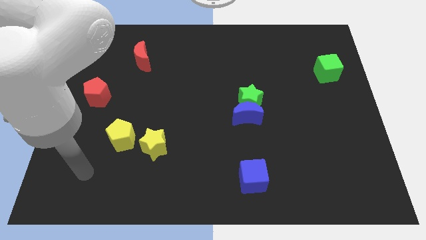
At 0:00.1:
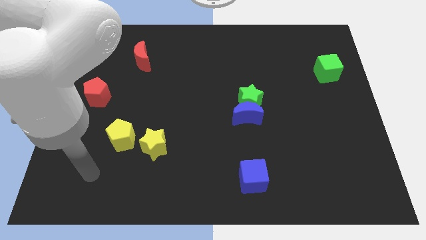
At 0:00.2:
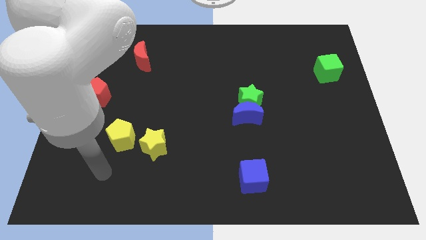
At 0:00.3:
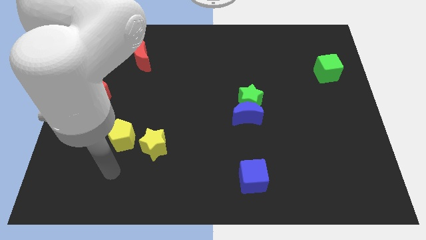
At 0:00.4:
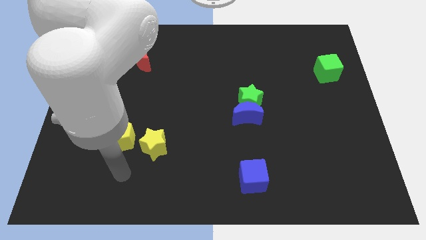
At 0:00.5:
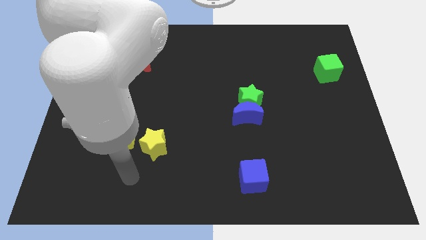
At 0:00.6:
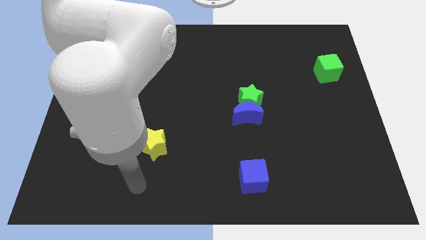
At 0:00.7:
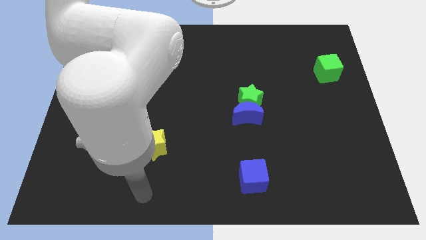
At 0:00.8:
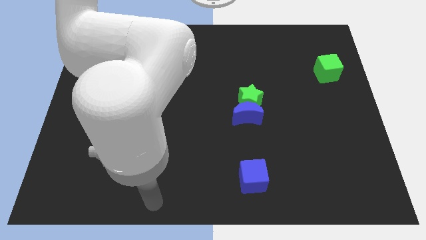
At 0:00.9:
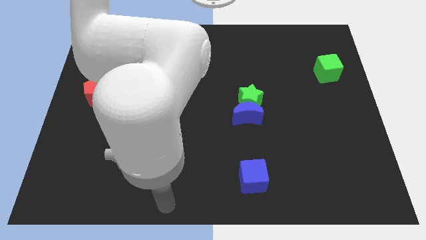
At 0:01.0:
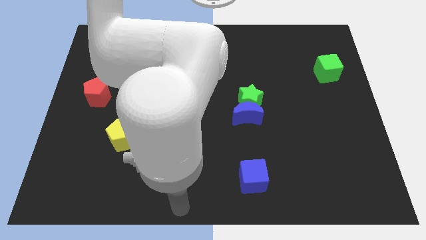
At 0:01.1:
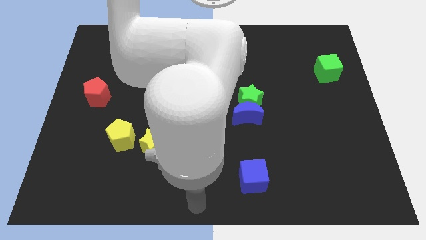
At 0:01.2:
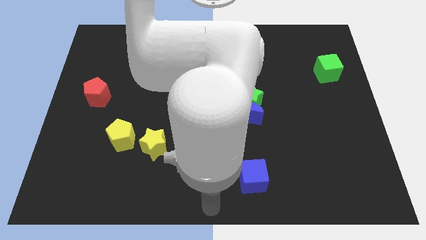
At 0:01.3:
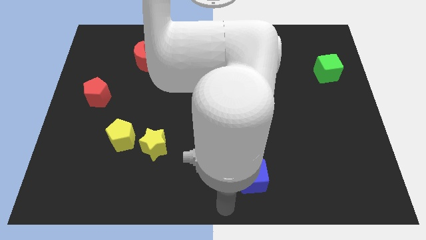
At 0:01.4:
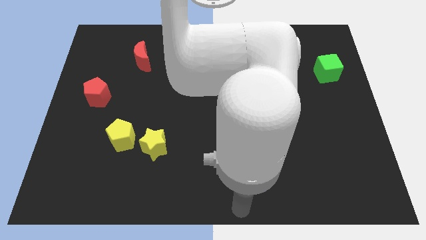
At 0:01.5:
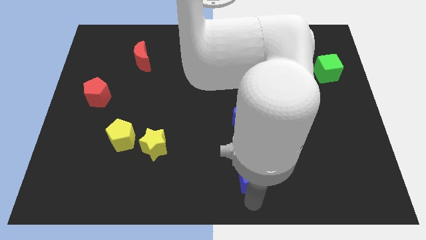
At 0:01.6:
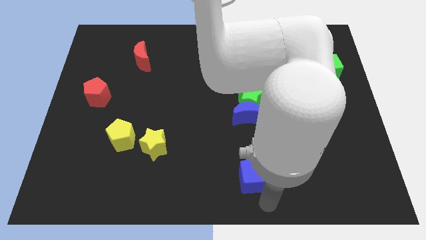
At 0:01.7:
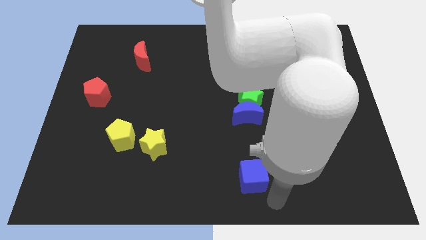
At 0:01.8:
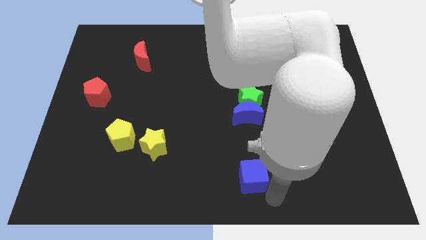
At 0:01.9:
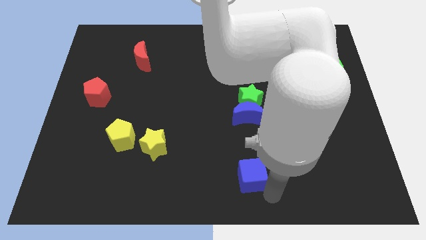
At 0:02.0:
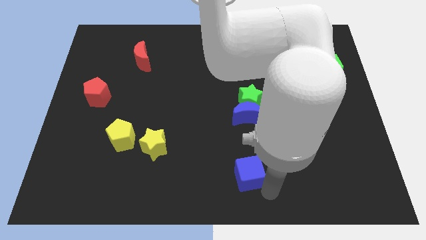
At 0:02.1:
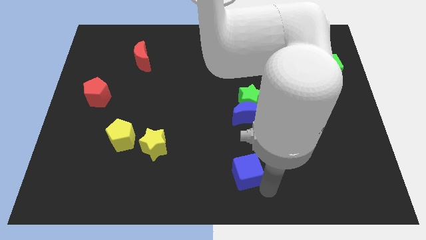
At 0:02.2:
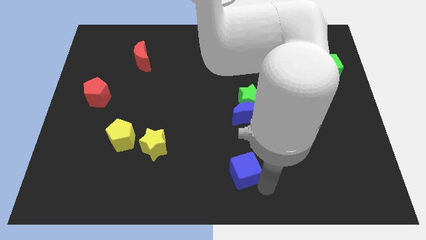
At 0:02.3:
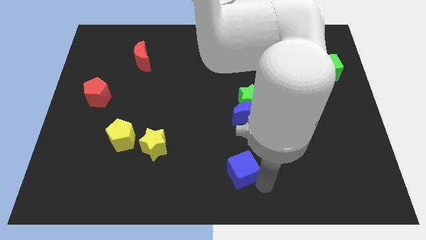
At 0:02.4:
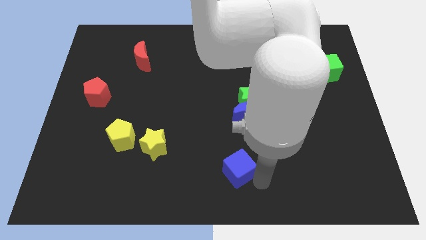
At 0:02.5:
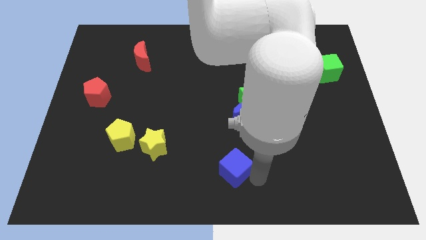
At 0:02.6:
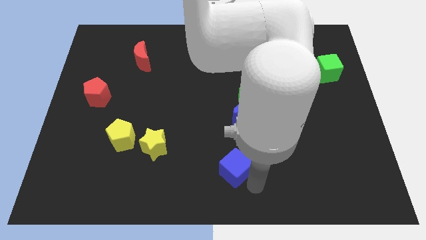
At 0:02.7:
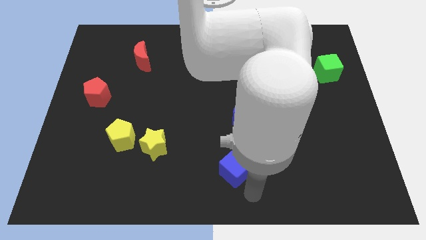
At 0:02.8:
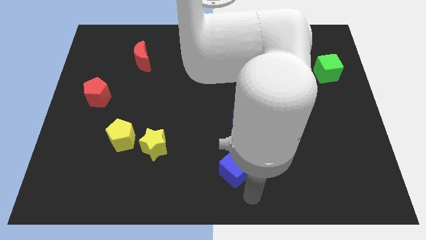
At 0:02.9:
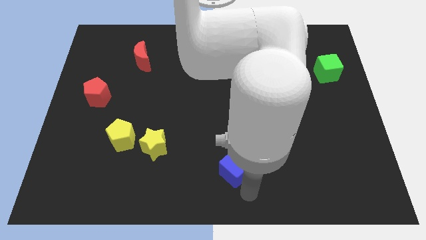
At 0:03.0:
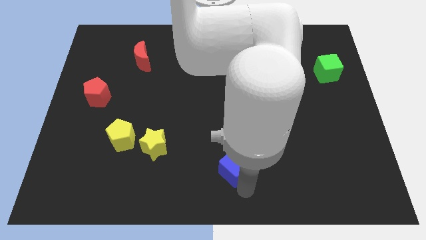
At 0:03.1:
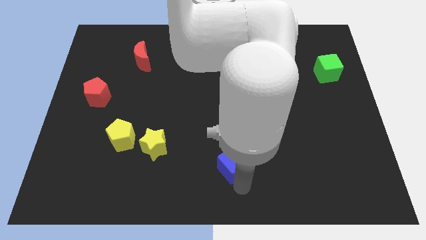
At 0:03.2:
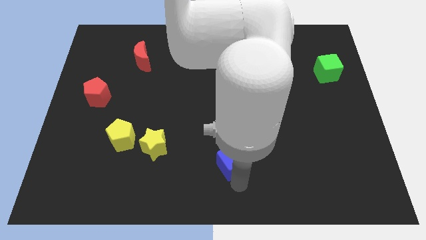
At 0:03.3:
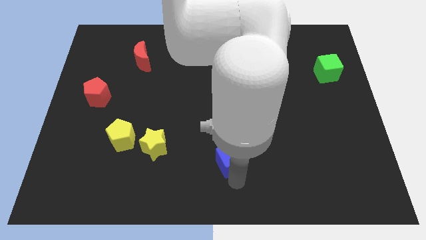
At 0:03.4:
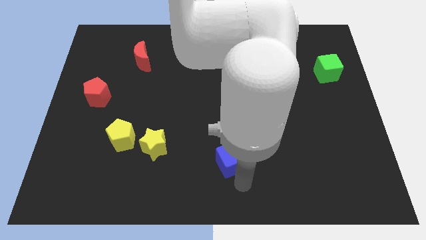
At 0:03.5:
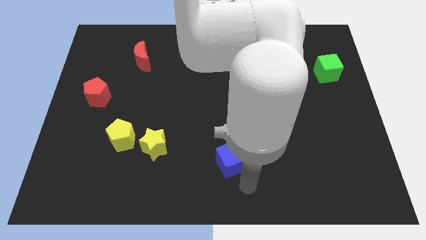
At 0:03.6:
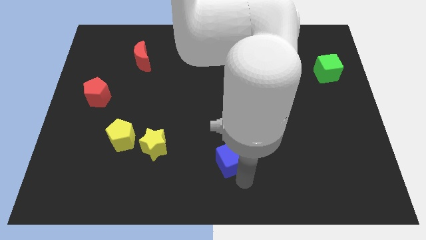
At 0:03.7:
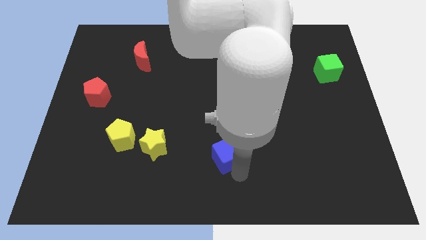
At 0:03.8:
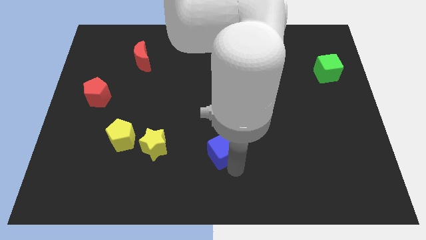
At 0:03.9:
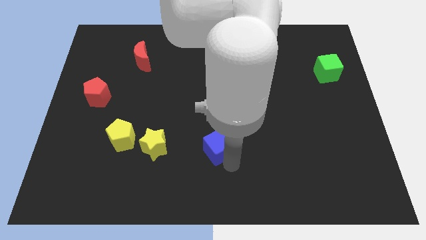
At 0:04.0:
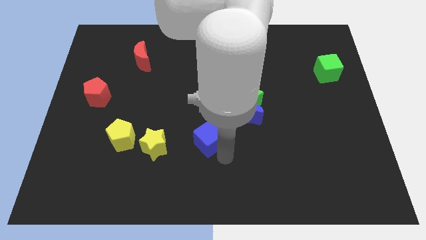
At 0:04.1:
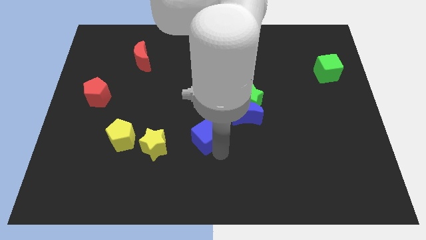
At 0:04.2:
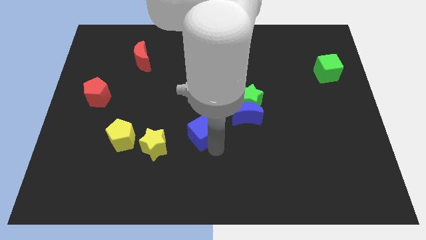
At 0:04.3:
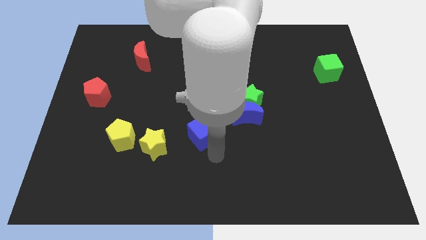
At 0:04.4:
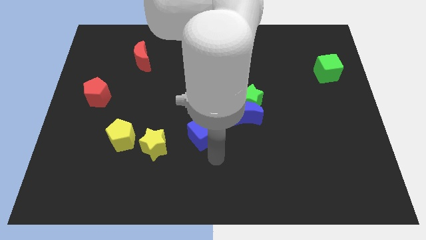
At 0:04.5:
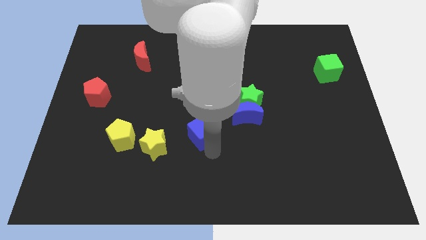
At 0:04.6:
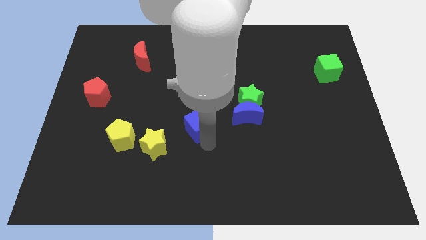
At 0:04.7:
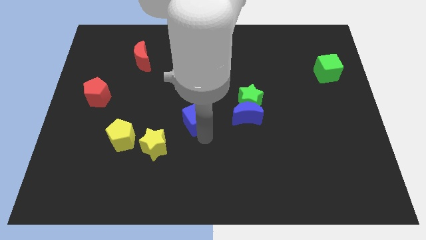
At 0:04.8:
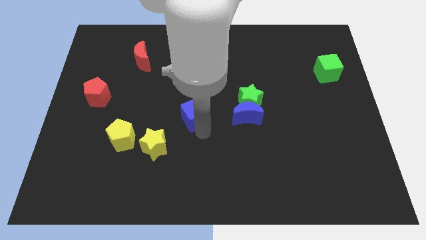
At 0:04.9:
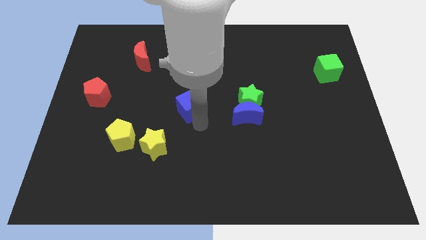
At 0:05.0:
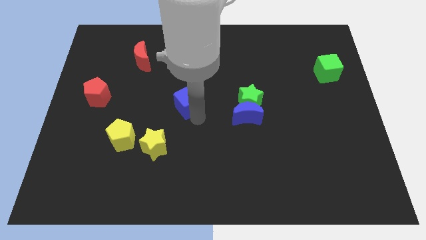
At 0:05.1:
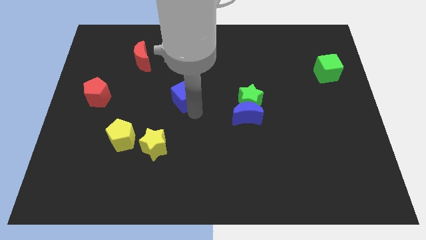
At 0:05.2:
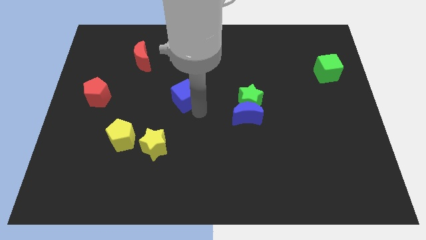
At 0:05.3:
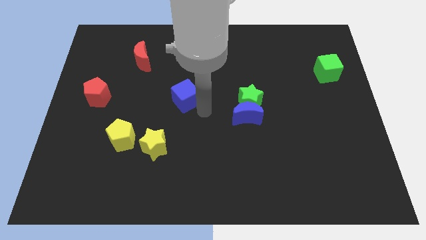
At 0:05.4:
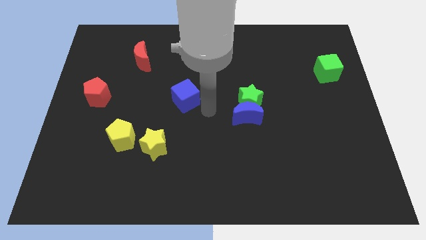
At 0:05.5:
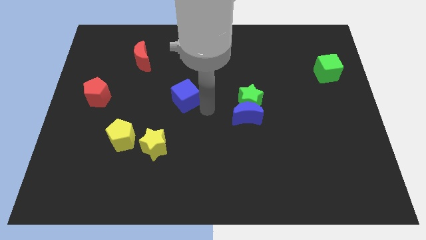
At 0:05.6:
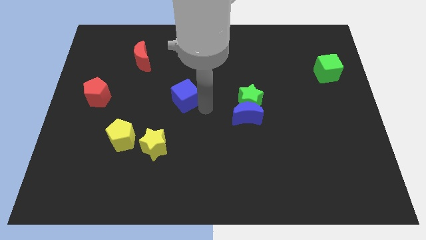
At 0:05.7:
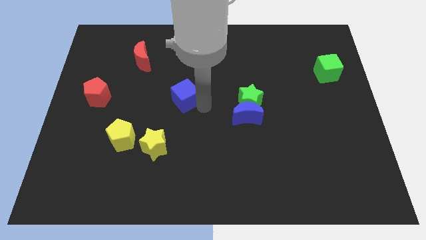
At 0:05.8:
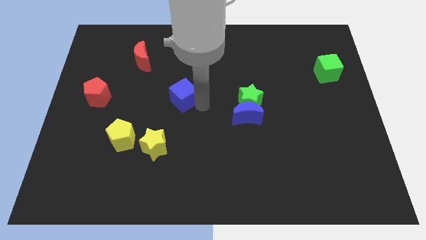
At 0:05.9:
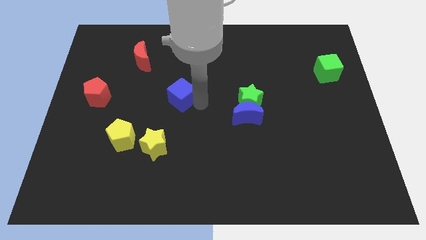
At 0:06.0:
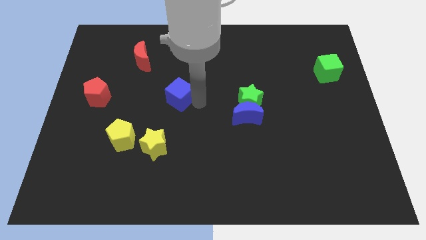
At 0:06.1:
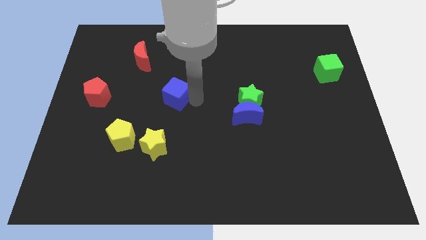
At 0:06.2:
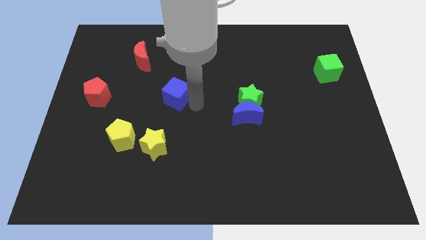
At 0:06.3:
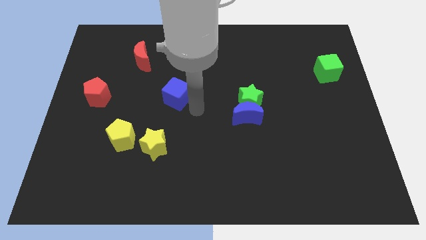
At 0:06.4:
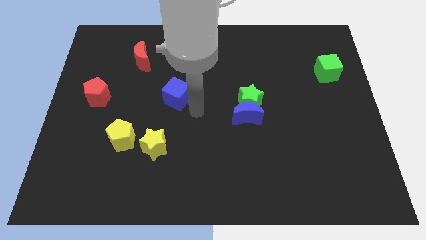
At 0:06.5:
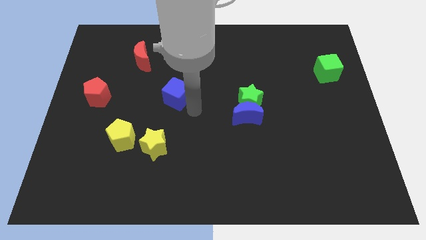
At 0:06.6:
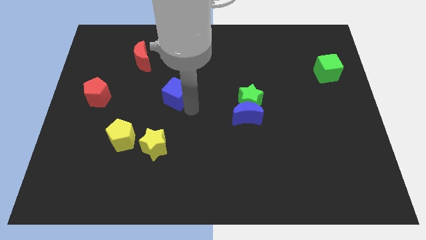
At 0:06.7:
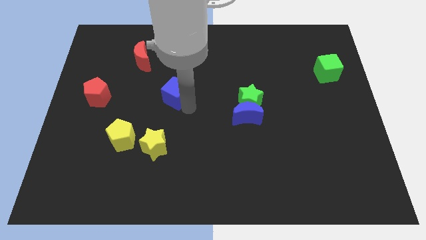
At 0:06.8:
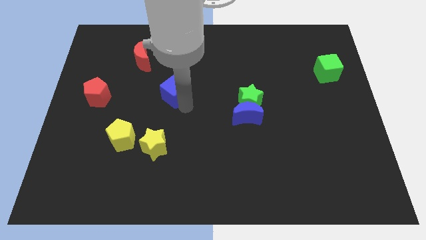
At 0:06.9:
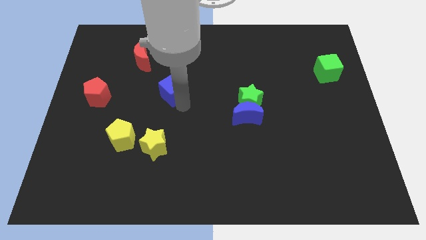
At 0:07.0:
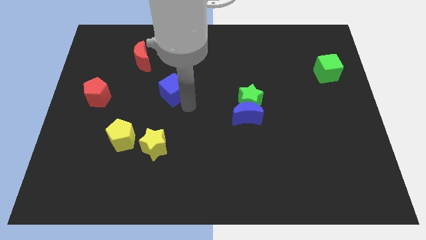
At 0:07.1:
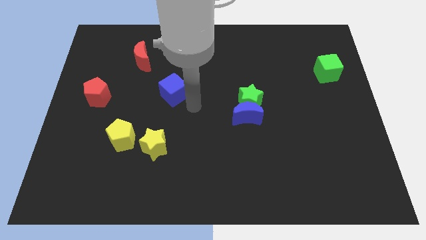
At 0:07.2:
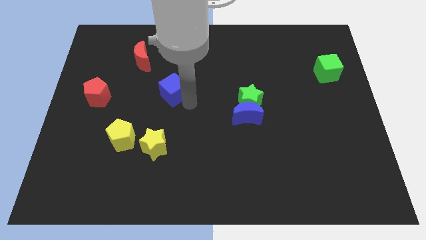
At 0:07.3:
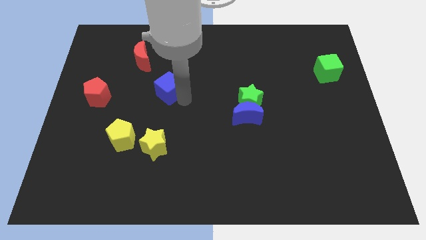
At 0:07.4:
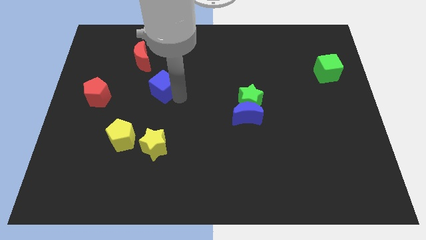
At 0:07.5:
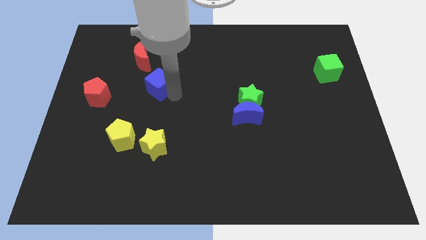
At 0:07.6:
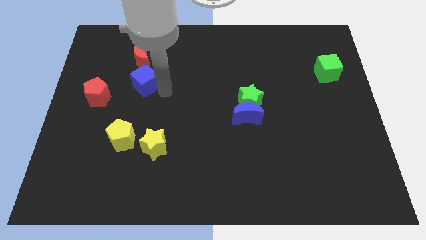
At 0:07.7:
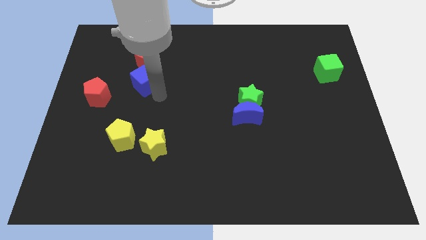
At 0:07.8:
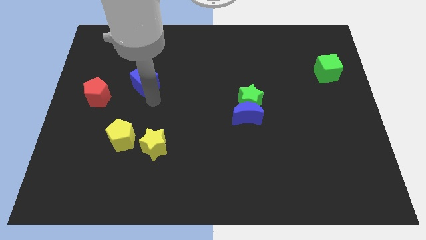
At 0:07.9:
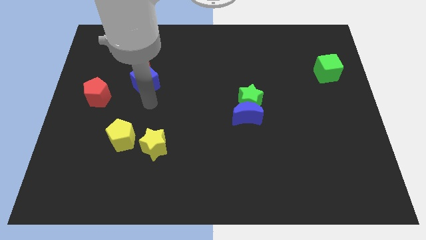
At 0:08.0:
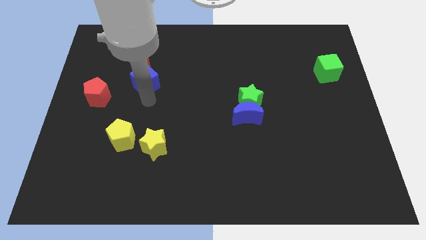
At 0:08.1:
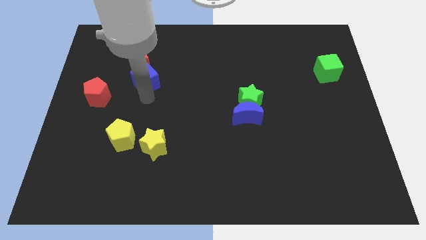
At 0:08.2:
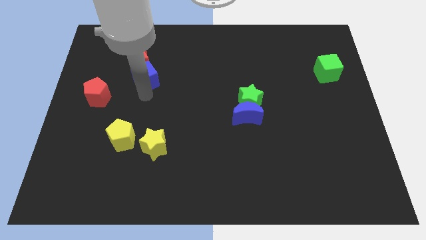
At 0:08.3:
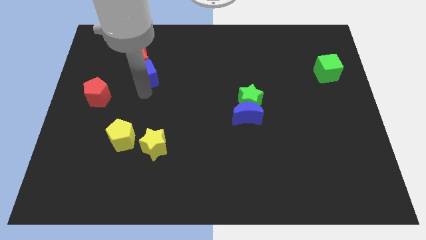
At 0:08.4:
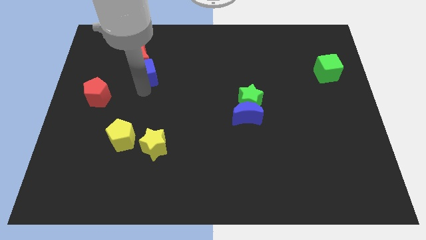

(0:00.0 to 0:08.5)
move the blue cube close to the red moon
